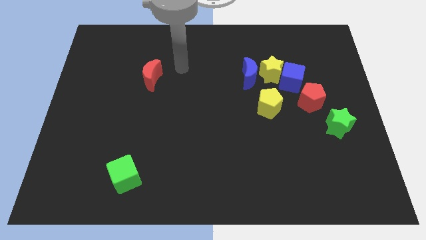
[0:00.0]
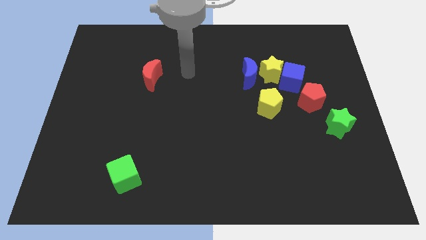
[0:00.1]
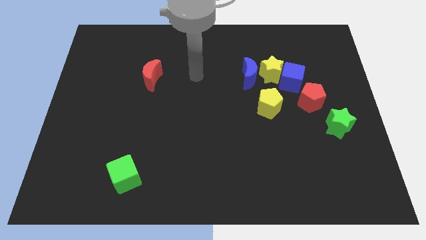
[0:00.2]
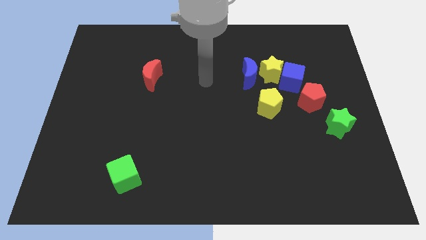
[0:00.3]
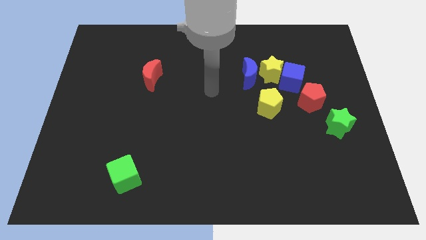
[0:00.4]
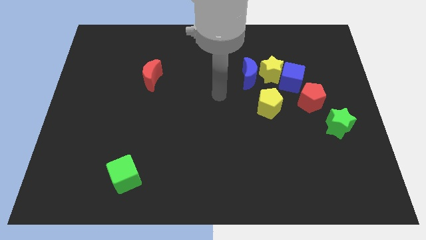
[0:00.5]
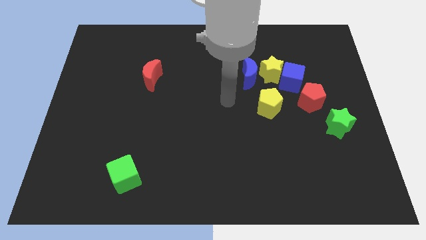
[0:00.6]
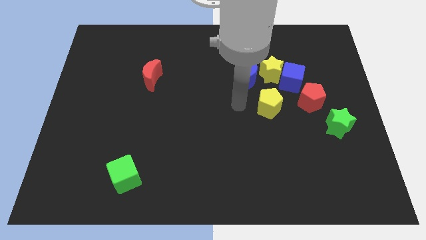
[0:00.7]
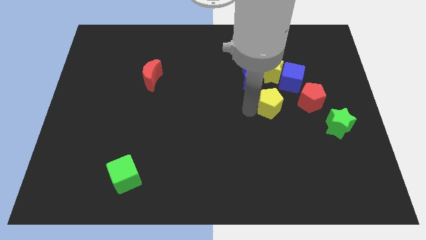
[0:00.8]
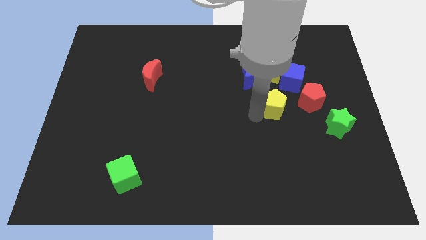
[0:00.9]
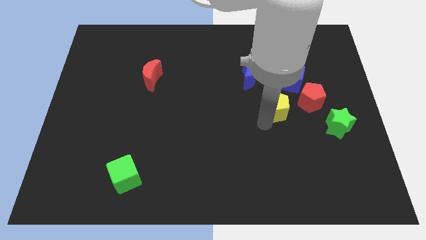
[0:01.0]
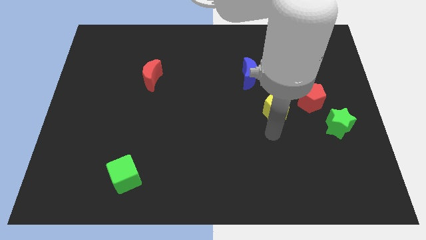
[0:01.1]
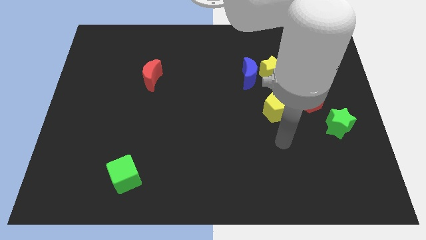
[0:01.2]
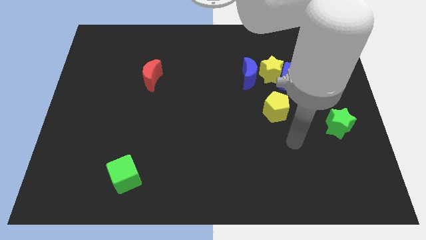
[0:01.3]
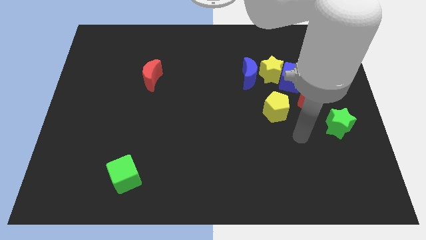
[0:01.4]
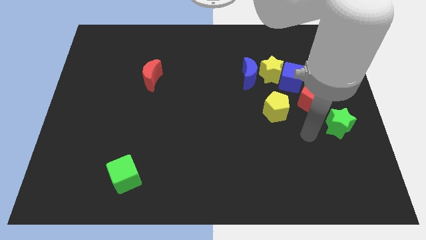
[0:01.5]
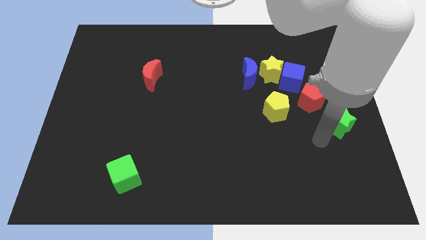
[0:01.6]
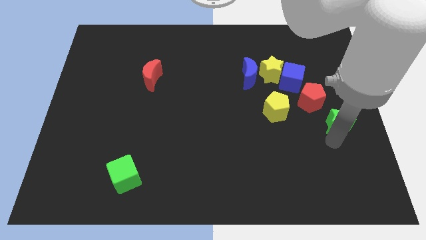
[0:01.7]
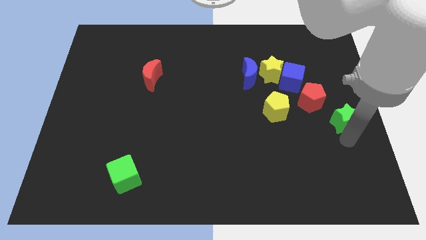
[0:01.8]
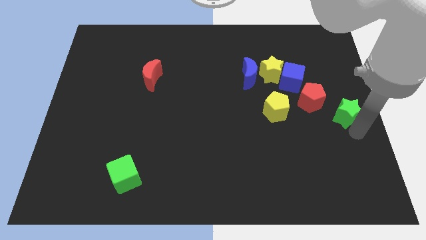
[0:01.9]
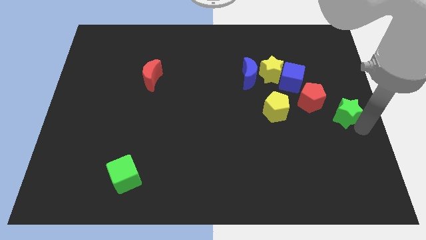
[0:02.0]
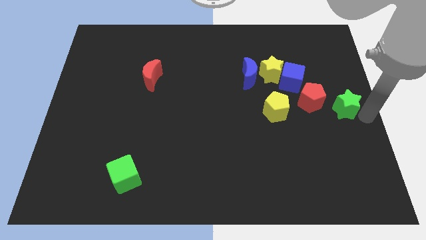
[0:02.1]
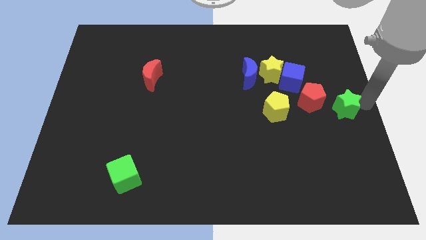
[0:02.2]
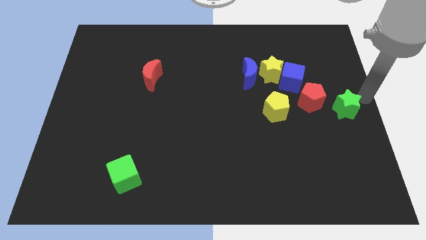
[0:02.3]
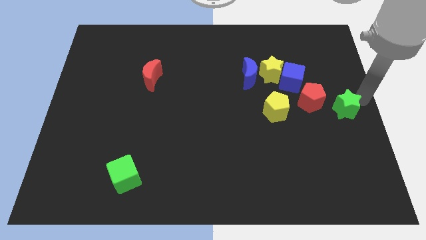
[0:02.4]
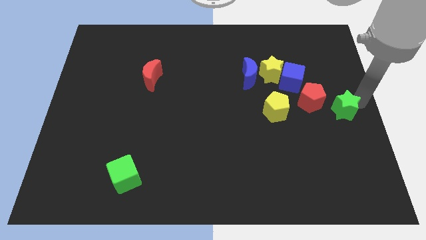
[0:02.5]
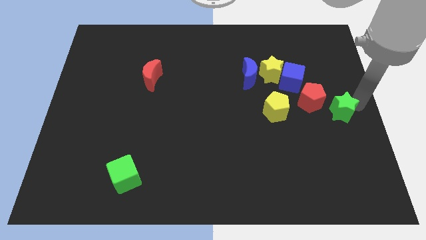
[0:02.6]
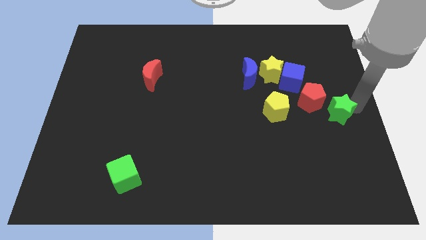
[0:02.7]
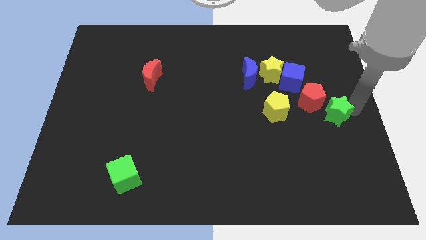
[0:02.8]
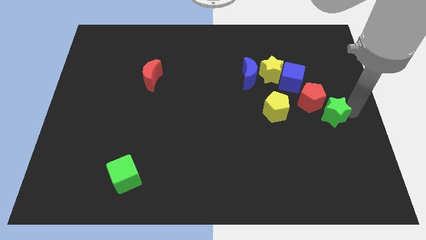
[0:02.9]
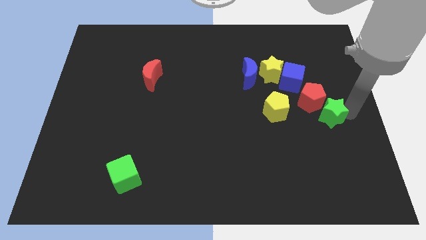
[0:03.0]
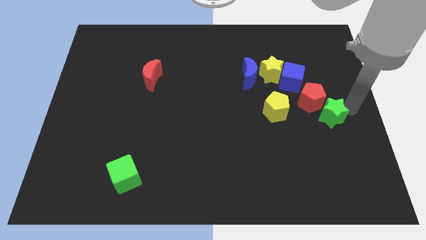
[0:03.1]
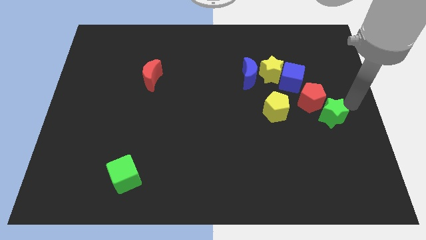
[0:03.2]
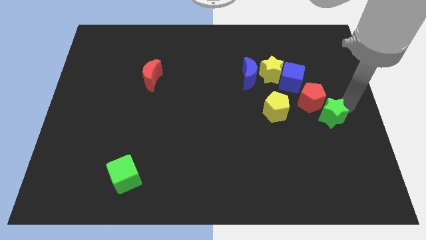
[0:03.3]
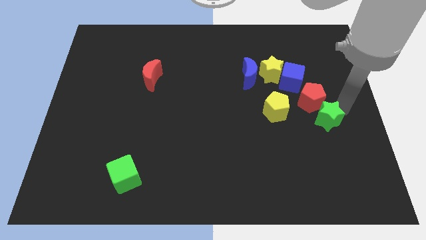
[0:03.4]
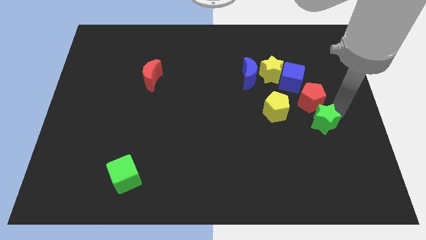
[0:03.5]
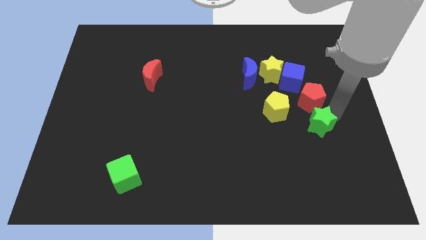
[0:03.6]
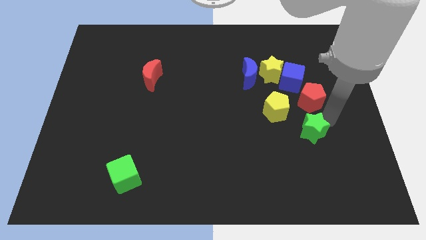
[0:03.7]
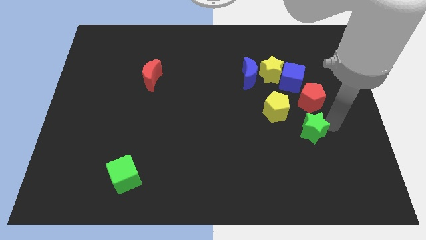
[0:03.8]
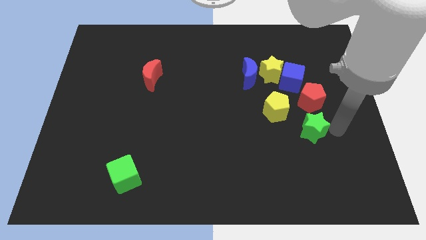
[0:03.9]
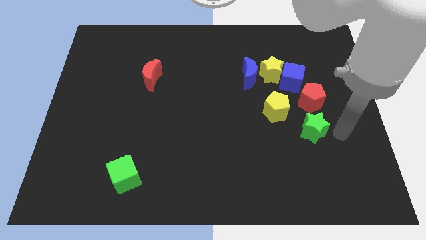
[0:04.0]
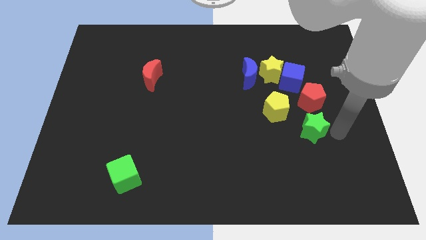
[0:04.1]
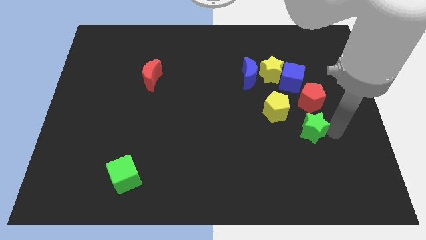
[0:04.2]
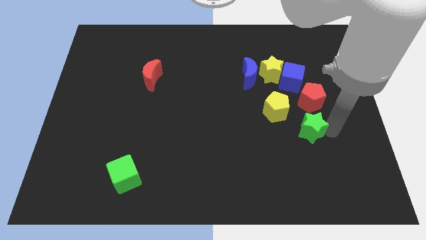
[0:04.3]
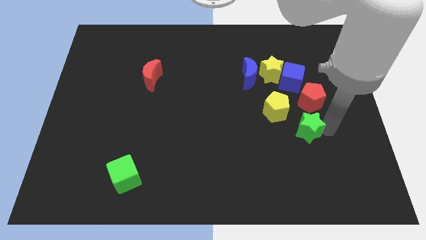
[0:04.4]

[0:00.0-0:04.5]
move the green star a little bit to the left

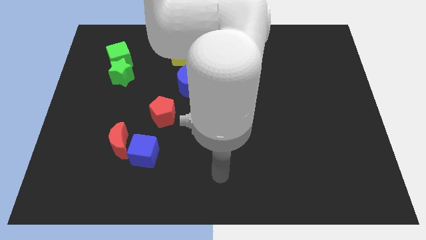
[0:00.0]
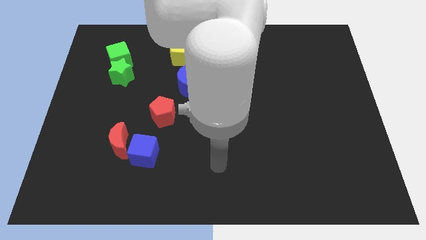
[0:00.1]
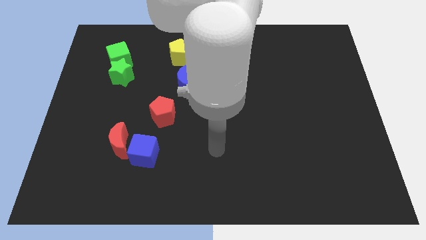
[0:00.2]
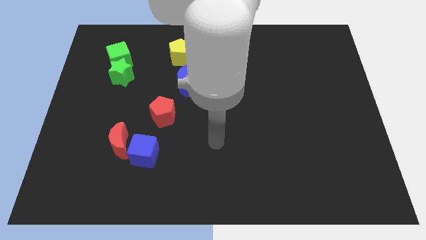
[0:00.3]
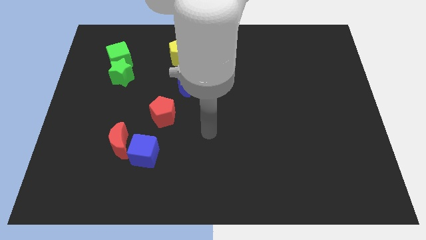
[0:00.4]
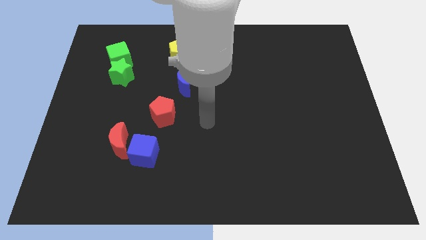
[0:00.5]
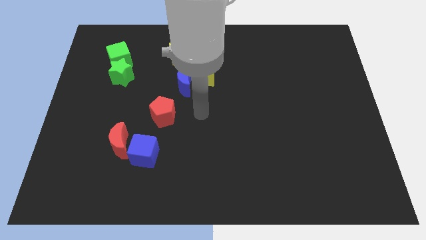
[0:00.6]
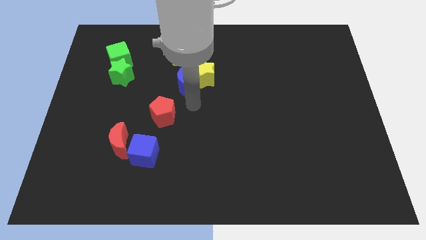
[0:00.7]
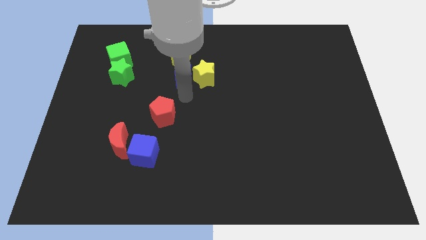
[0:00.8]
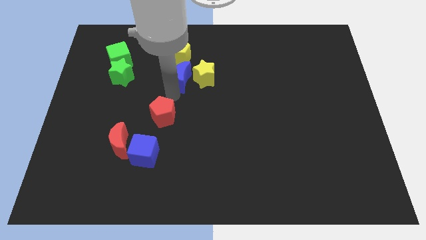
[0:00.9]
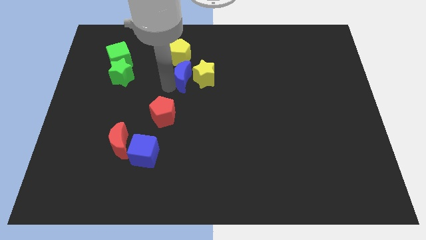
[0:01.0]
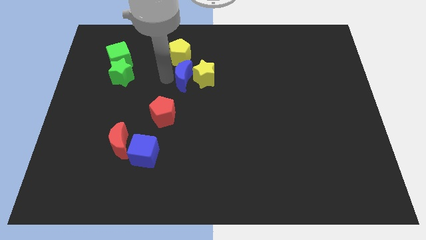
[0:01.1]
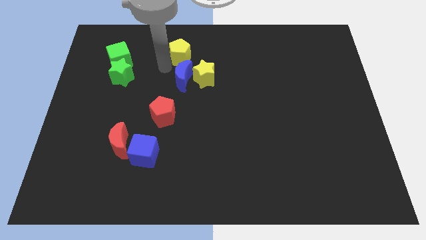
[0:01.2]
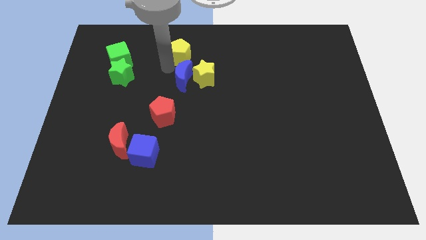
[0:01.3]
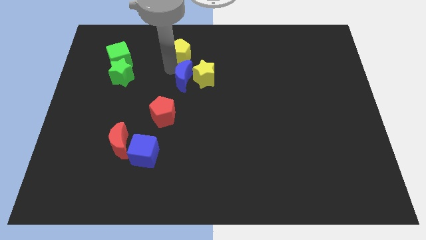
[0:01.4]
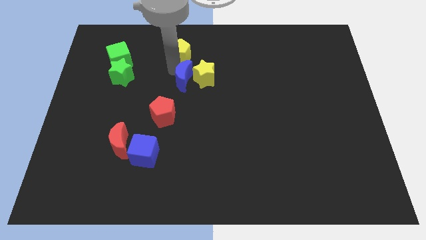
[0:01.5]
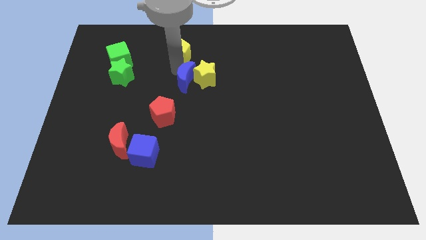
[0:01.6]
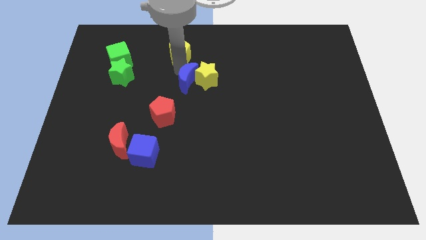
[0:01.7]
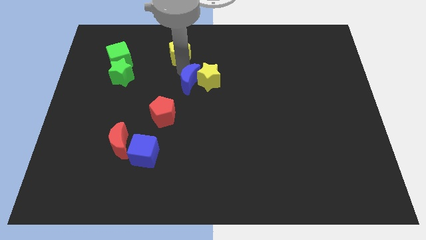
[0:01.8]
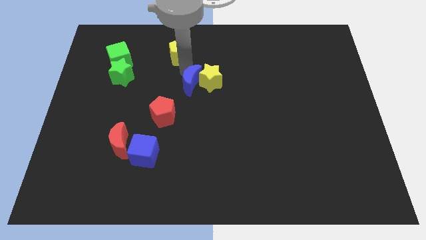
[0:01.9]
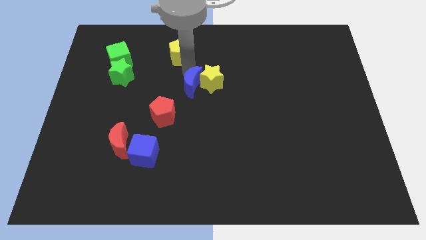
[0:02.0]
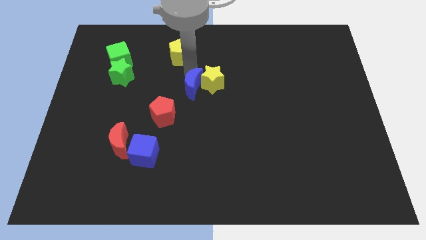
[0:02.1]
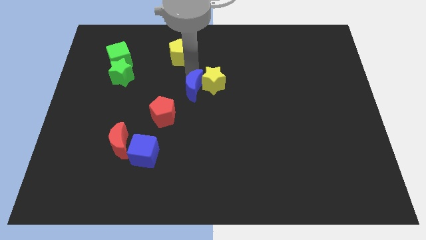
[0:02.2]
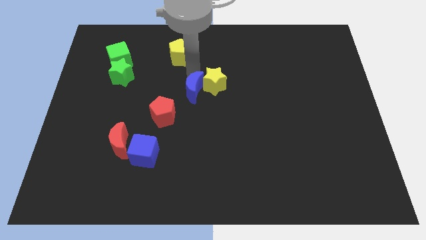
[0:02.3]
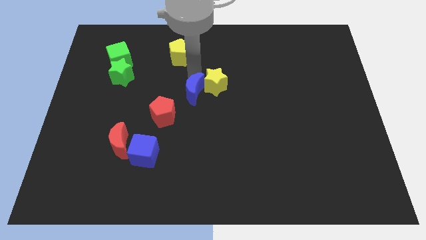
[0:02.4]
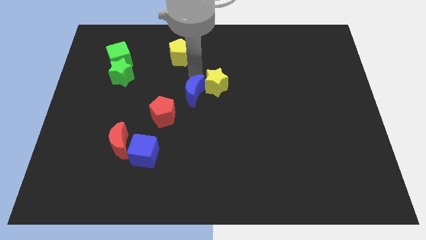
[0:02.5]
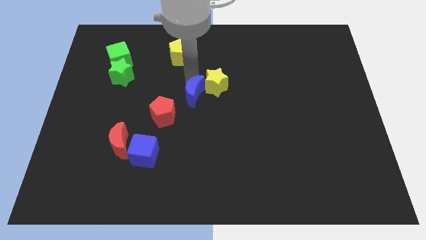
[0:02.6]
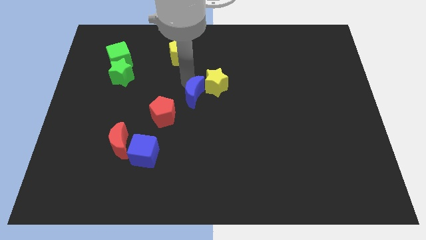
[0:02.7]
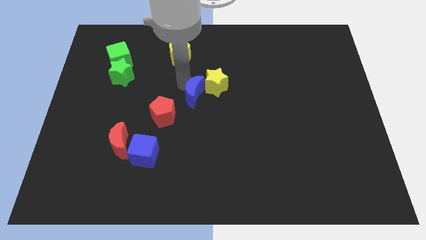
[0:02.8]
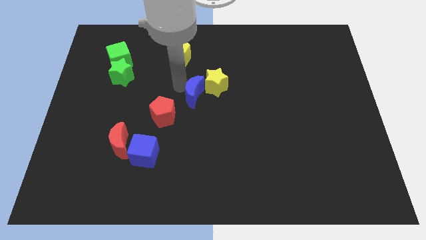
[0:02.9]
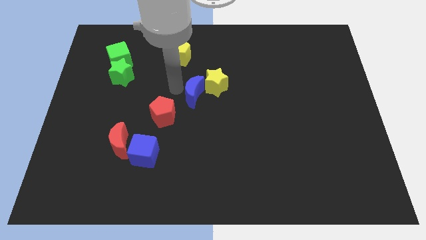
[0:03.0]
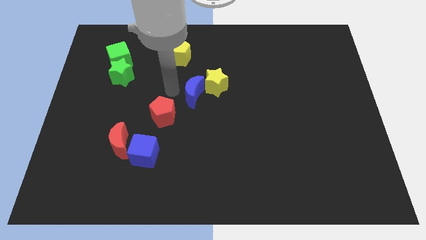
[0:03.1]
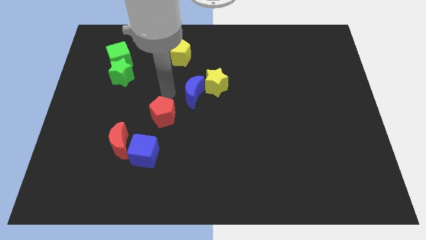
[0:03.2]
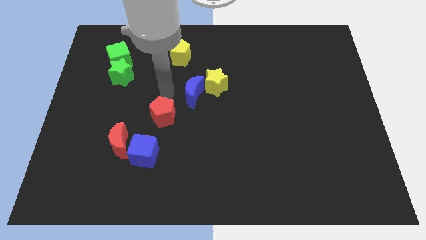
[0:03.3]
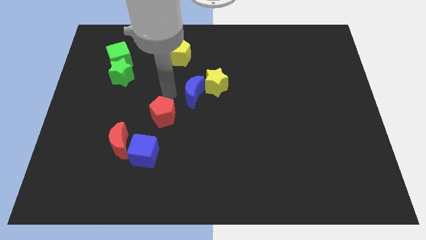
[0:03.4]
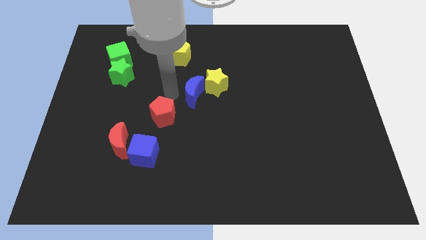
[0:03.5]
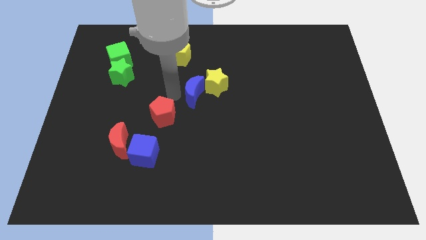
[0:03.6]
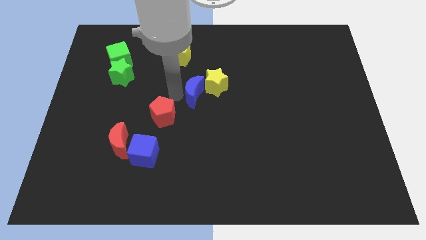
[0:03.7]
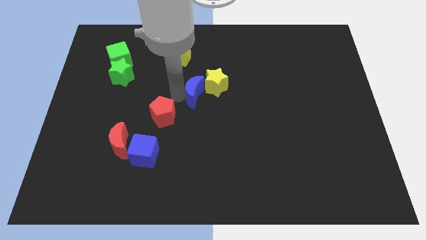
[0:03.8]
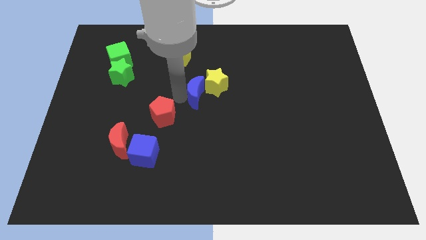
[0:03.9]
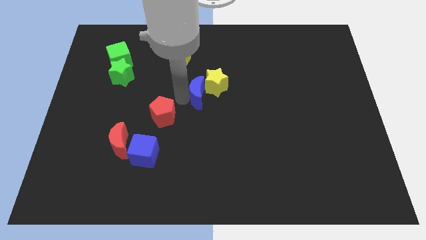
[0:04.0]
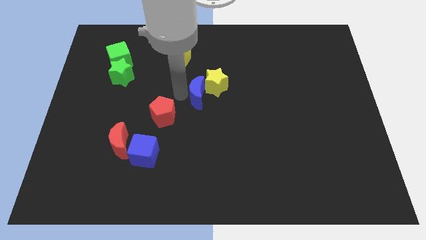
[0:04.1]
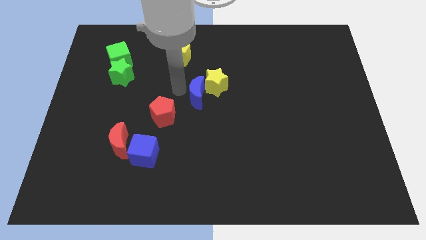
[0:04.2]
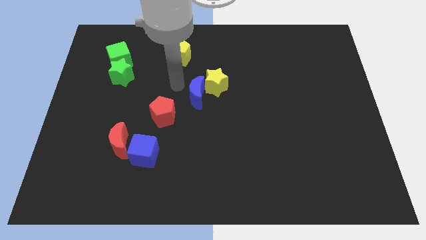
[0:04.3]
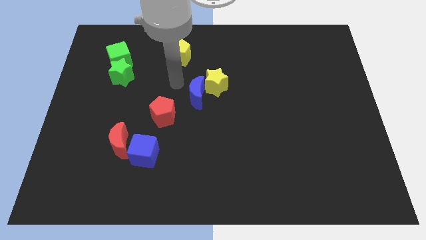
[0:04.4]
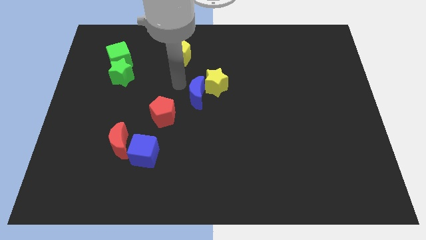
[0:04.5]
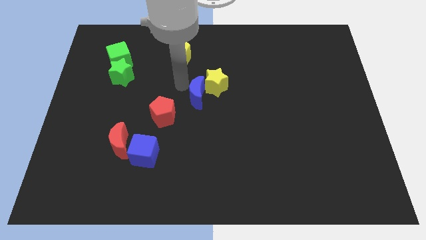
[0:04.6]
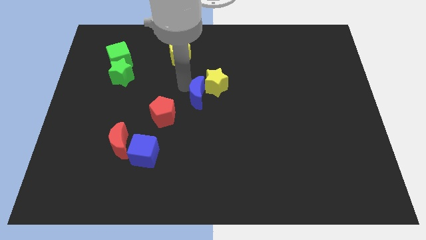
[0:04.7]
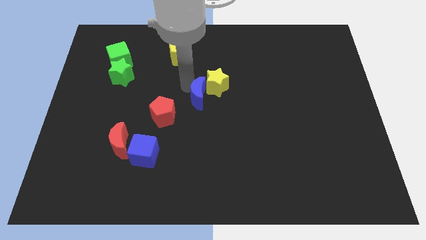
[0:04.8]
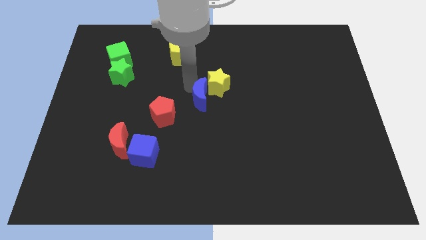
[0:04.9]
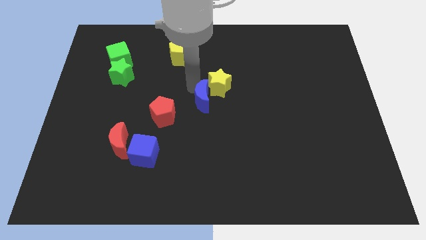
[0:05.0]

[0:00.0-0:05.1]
slide the blue moon down and right diagonally somewhat
